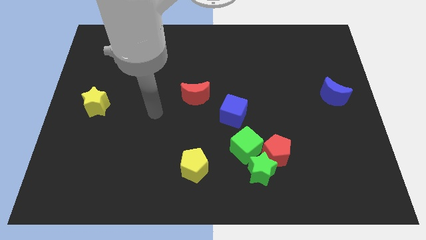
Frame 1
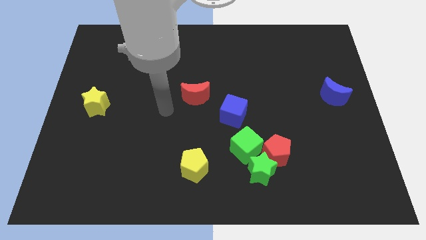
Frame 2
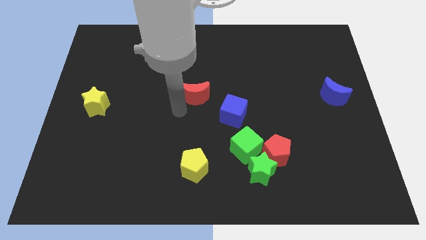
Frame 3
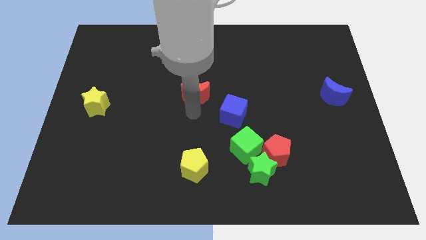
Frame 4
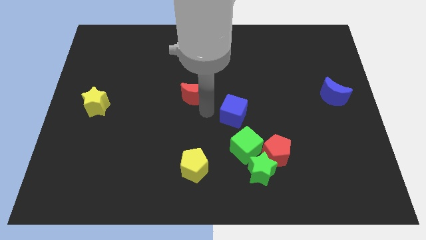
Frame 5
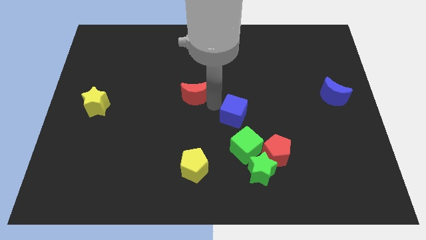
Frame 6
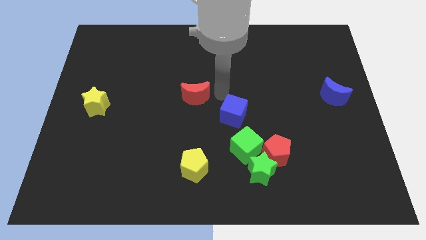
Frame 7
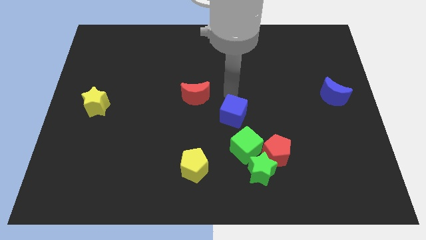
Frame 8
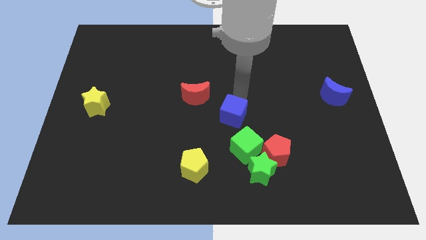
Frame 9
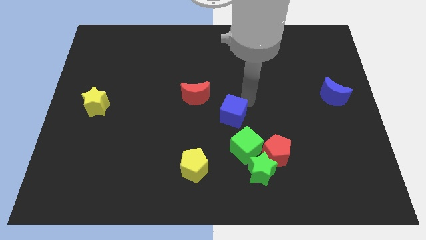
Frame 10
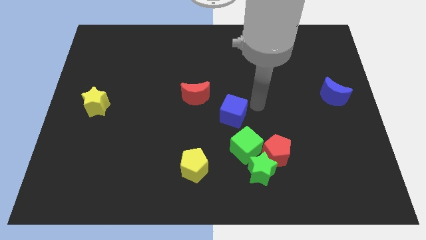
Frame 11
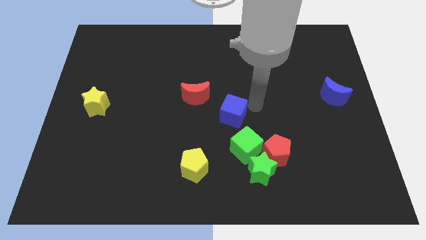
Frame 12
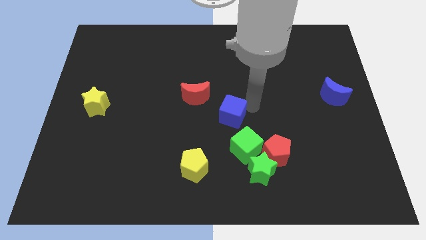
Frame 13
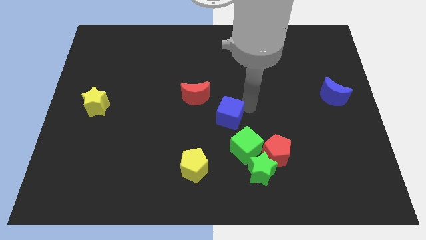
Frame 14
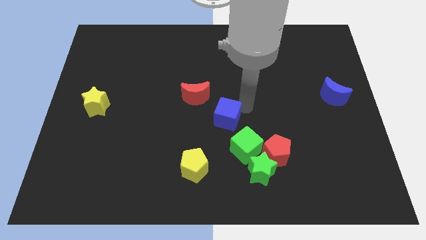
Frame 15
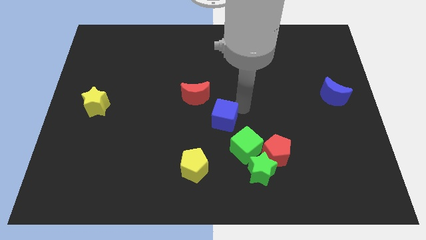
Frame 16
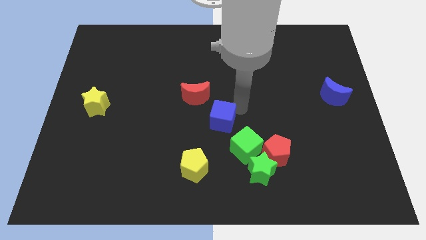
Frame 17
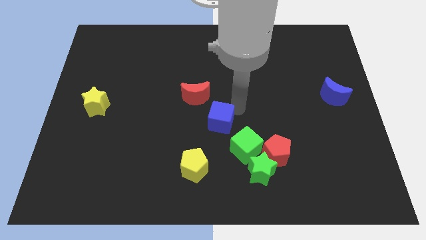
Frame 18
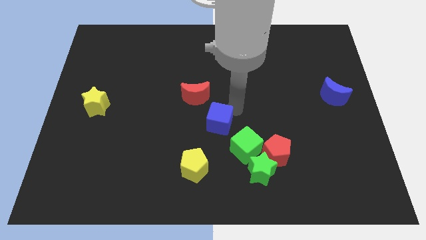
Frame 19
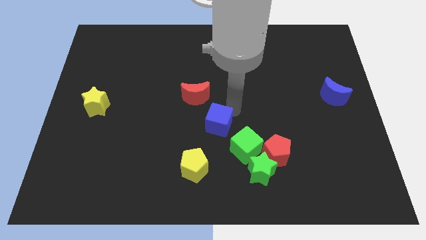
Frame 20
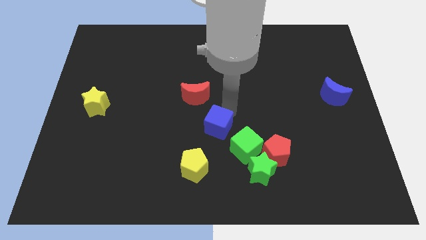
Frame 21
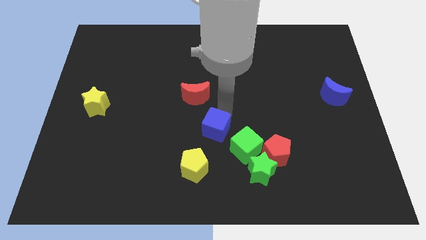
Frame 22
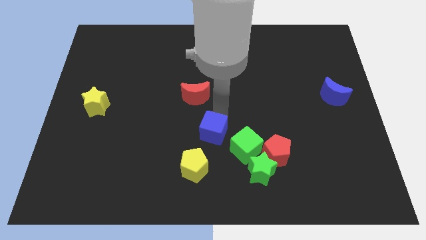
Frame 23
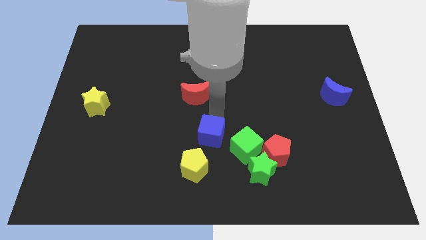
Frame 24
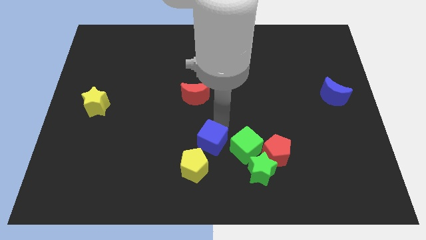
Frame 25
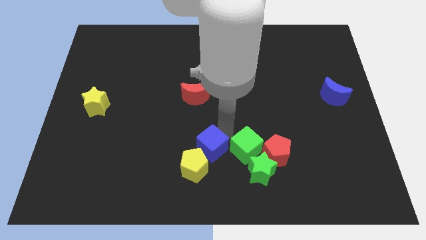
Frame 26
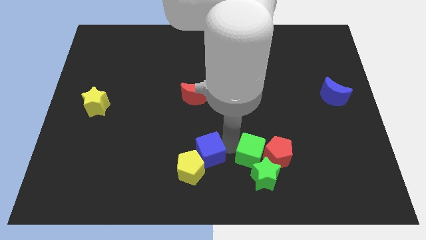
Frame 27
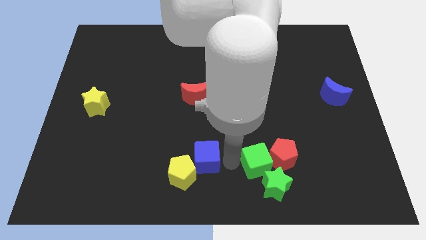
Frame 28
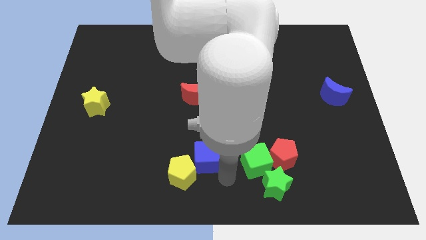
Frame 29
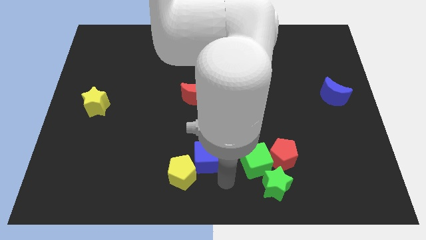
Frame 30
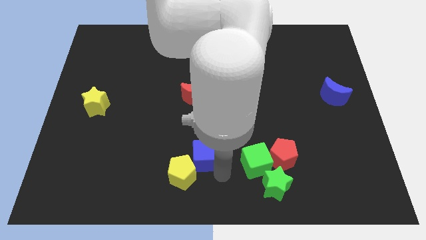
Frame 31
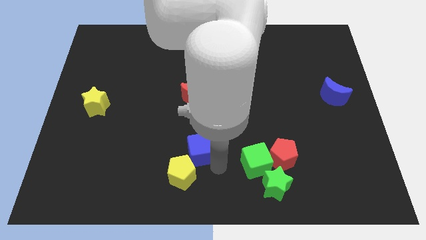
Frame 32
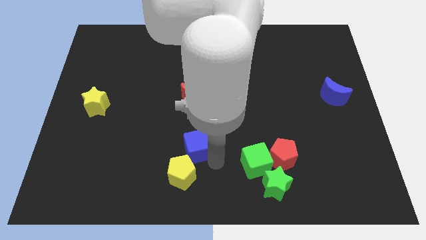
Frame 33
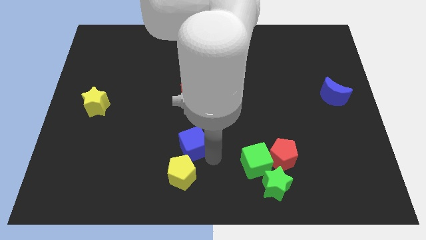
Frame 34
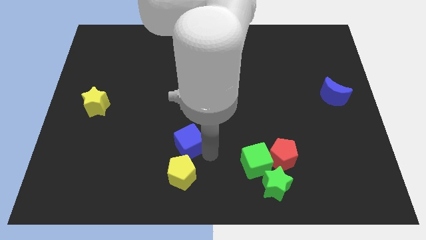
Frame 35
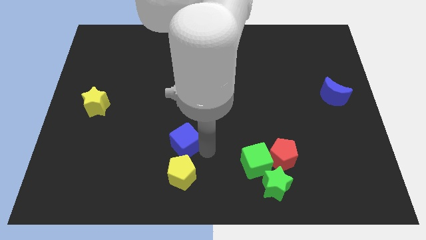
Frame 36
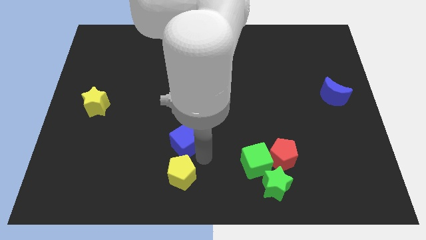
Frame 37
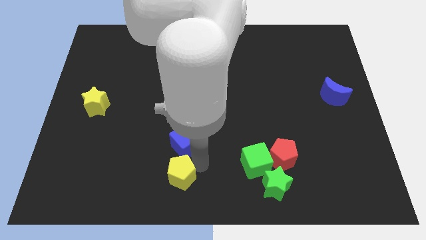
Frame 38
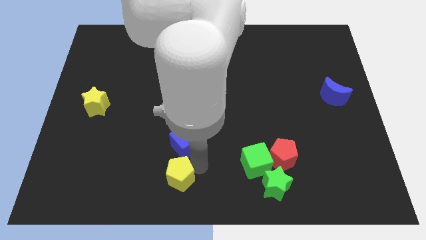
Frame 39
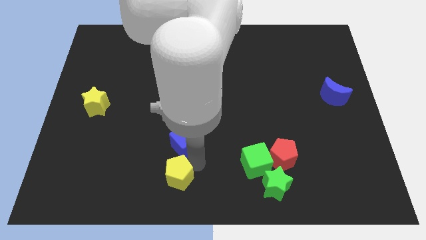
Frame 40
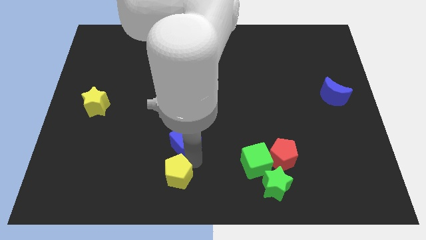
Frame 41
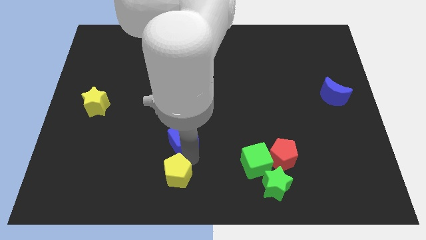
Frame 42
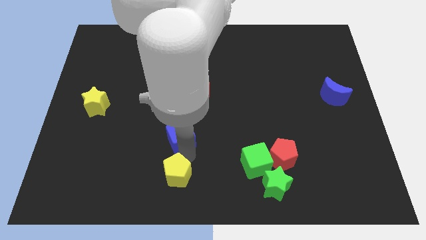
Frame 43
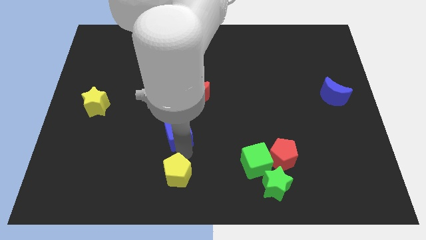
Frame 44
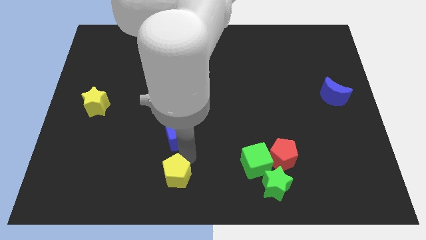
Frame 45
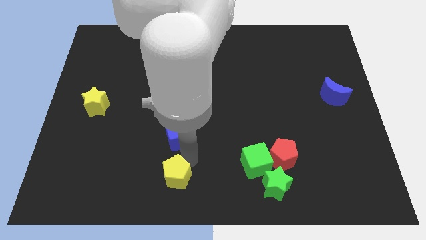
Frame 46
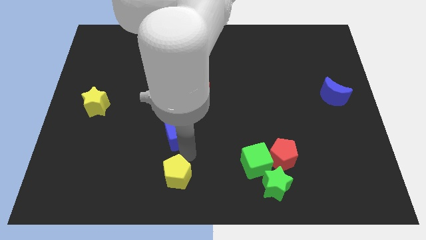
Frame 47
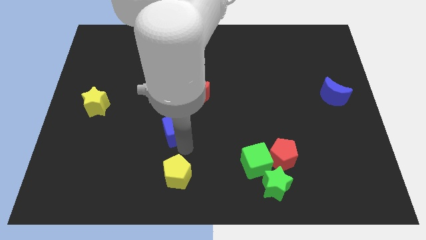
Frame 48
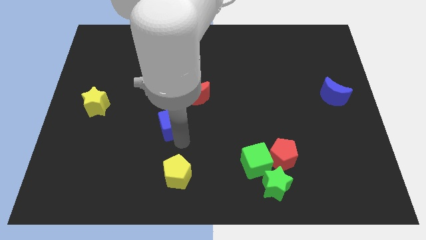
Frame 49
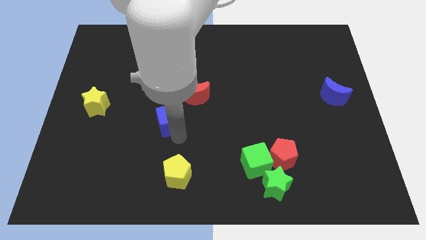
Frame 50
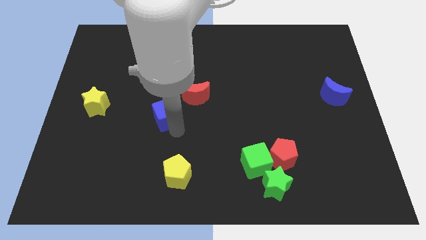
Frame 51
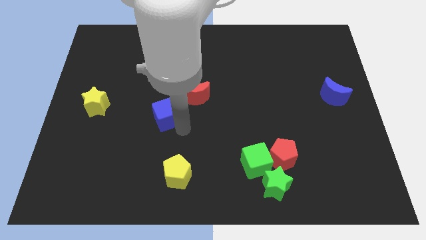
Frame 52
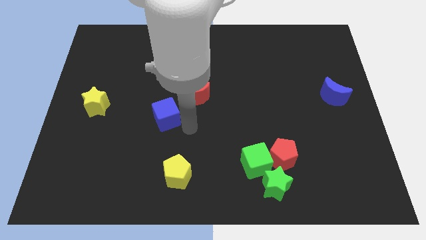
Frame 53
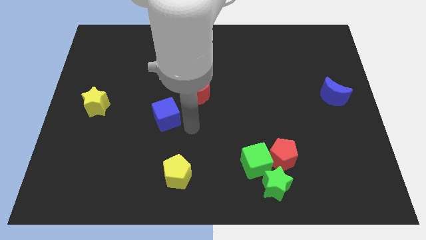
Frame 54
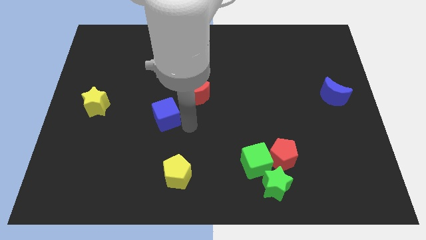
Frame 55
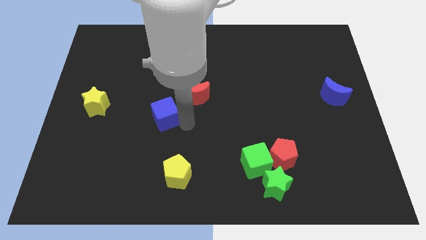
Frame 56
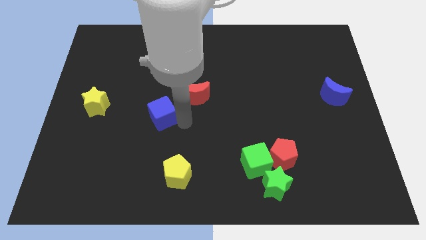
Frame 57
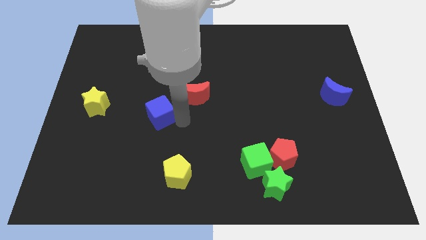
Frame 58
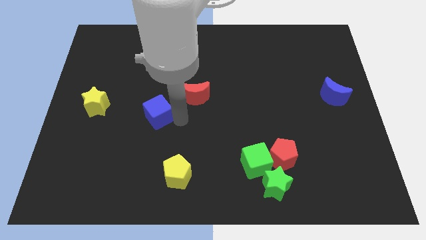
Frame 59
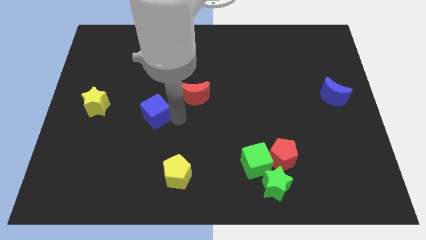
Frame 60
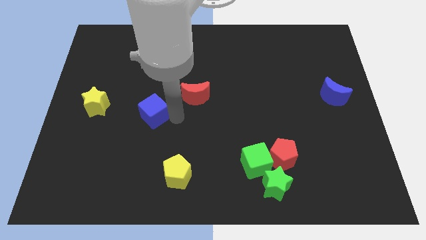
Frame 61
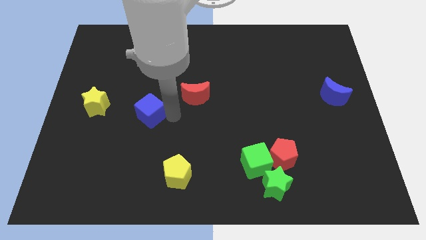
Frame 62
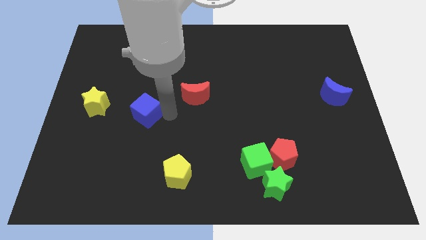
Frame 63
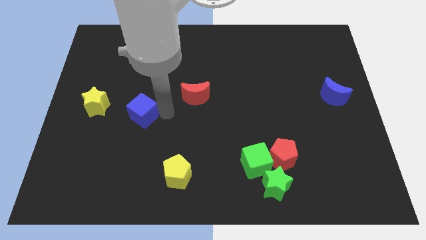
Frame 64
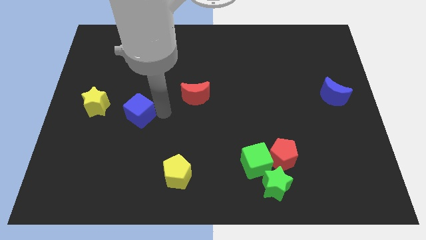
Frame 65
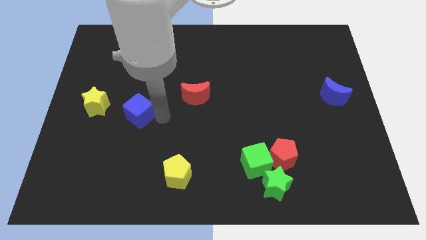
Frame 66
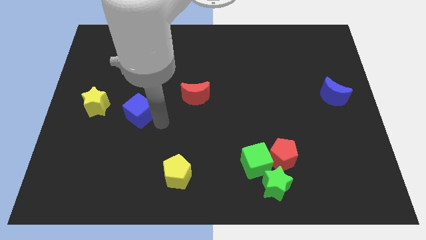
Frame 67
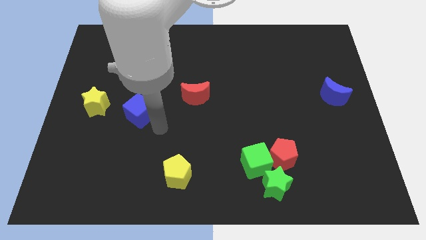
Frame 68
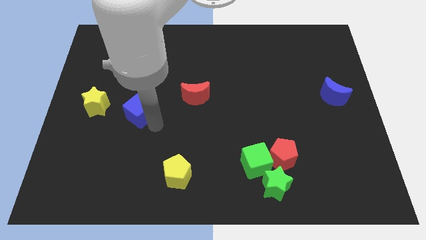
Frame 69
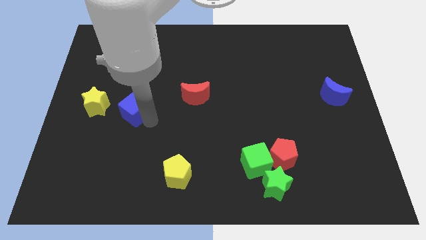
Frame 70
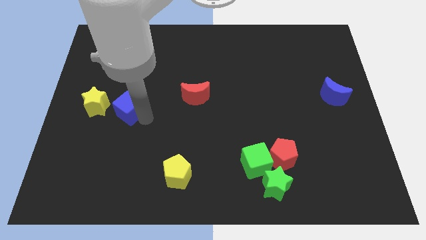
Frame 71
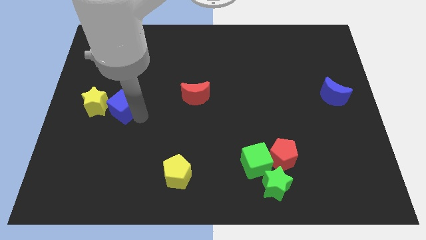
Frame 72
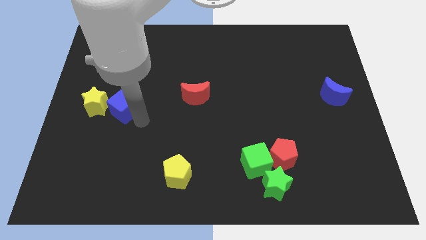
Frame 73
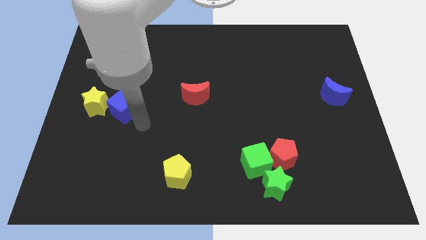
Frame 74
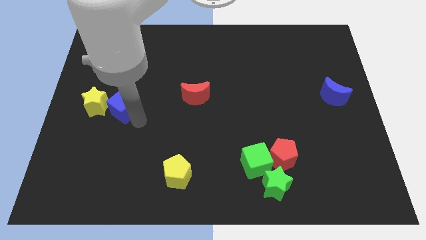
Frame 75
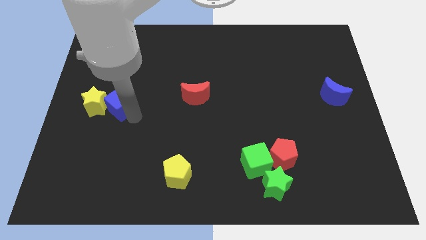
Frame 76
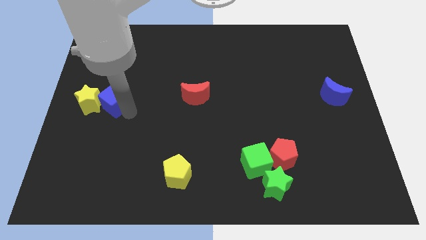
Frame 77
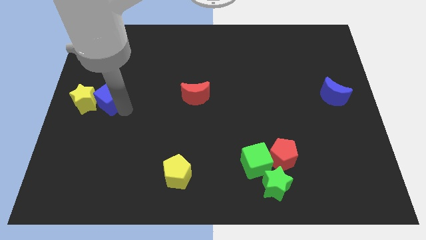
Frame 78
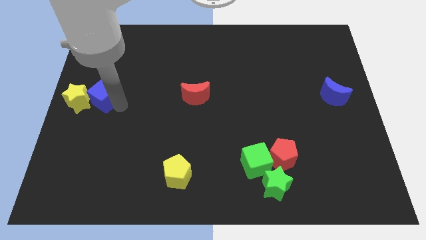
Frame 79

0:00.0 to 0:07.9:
move the blue cube to the left side
